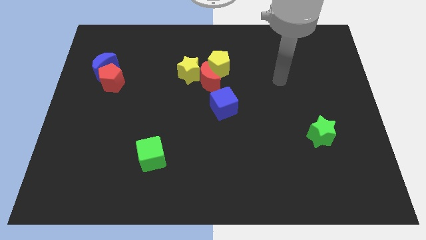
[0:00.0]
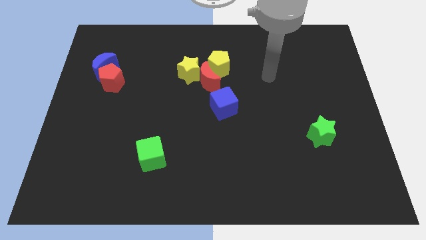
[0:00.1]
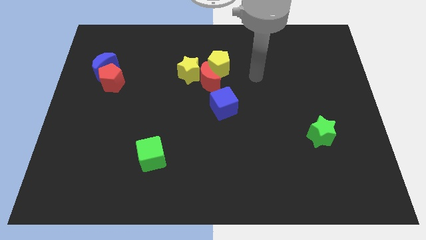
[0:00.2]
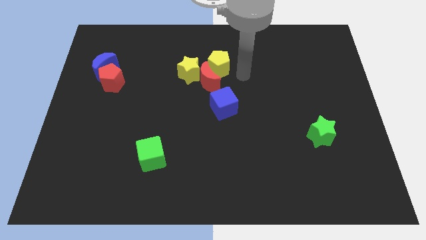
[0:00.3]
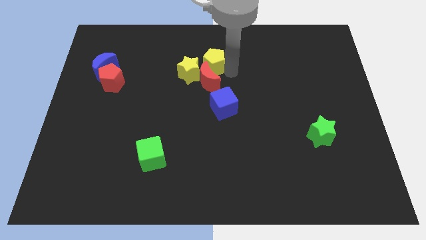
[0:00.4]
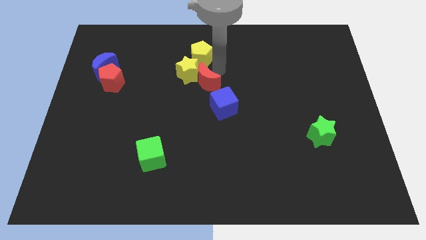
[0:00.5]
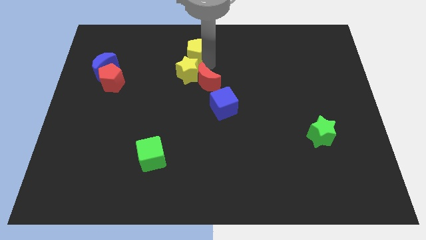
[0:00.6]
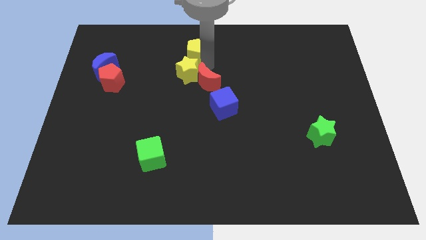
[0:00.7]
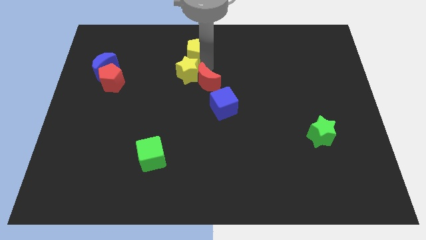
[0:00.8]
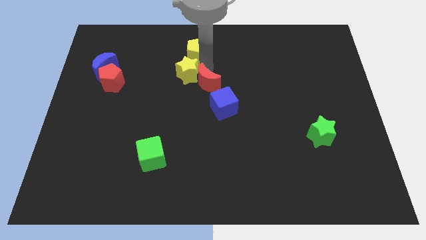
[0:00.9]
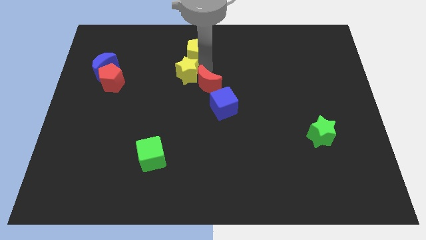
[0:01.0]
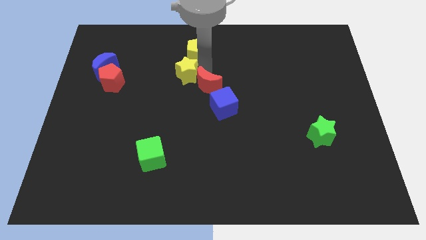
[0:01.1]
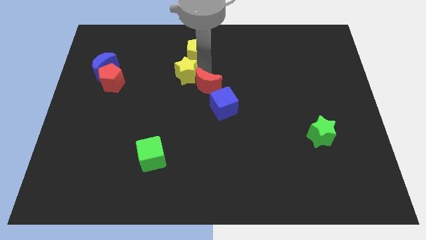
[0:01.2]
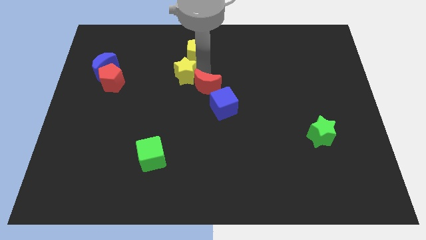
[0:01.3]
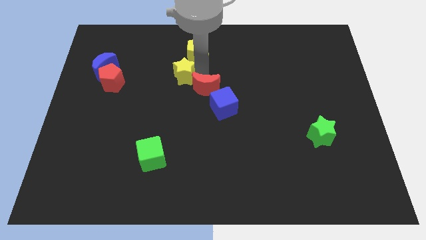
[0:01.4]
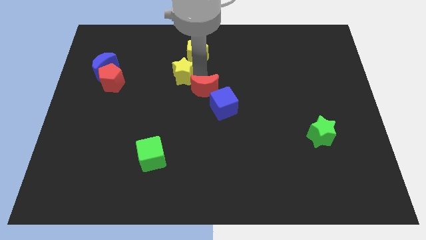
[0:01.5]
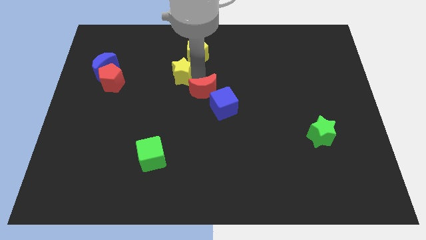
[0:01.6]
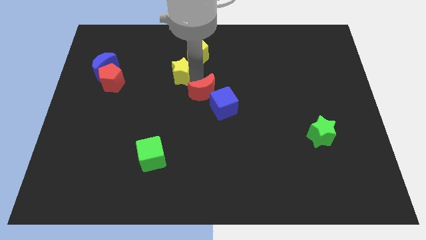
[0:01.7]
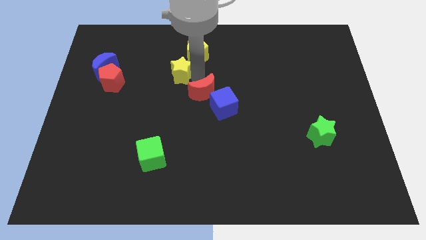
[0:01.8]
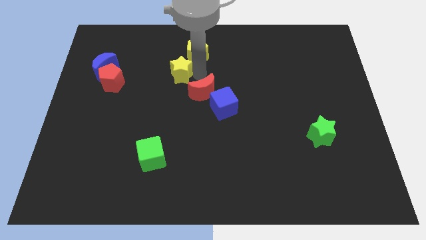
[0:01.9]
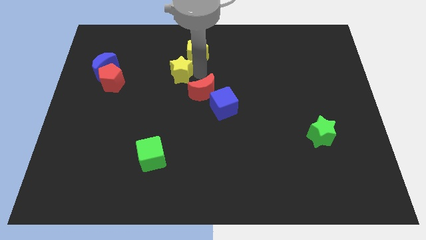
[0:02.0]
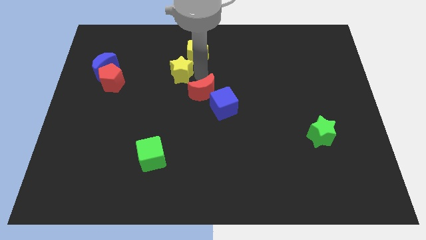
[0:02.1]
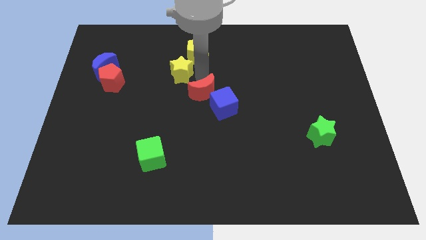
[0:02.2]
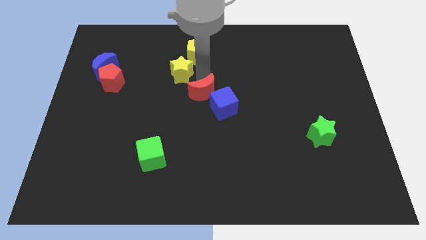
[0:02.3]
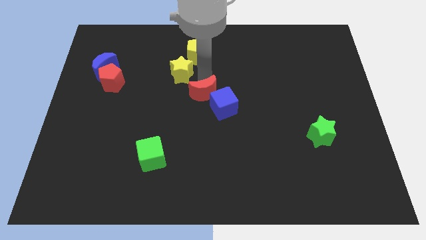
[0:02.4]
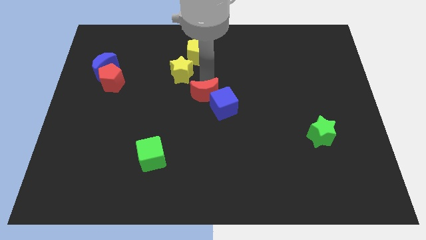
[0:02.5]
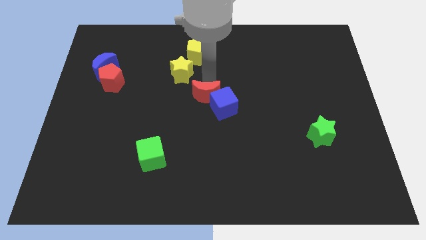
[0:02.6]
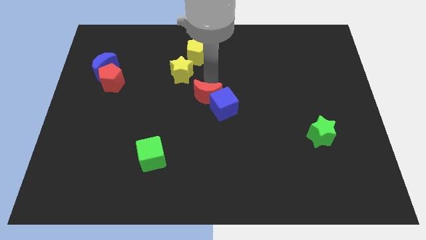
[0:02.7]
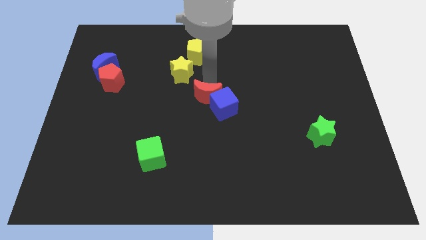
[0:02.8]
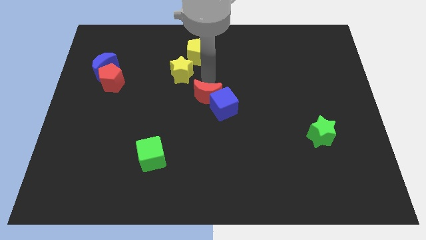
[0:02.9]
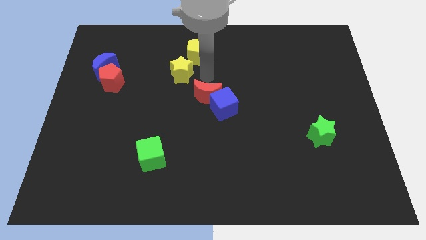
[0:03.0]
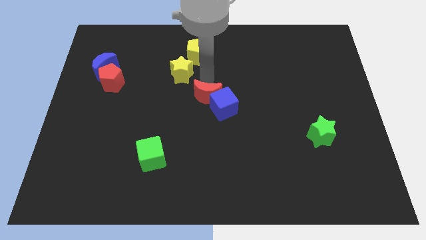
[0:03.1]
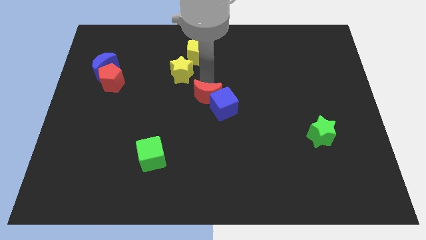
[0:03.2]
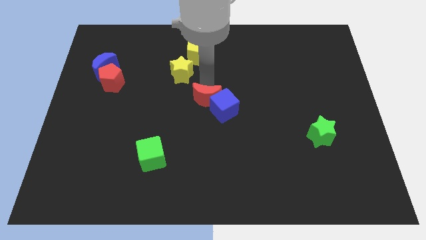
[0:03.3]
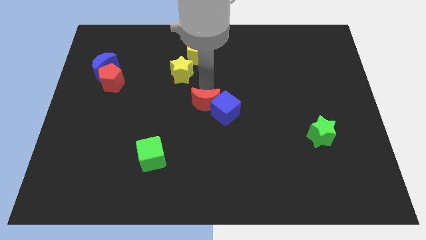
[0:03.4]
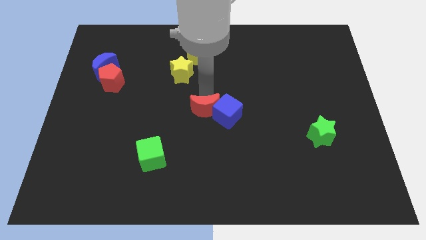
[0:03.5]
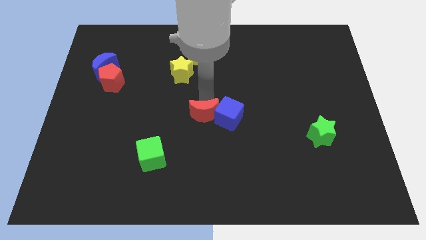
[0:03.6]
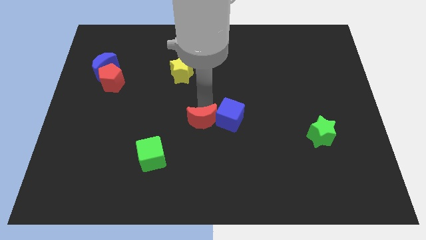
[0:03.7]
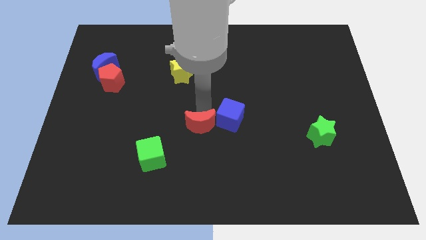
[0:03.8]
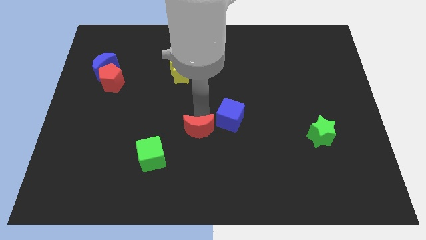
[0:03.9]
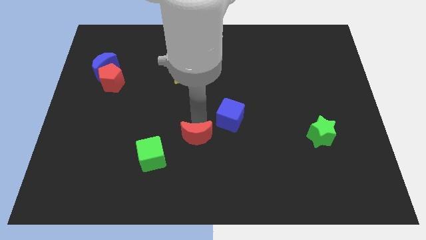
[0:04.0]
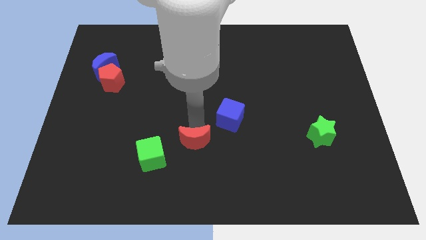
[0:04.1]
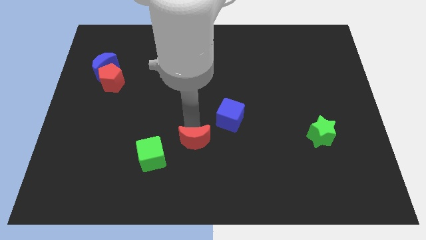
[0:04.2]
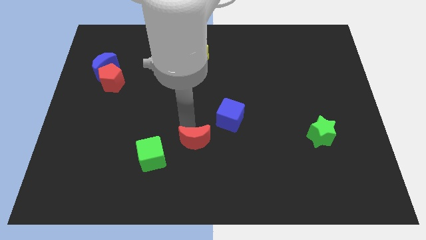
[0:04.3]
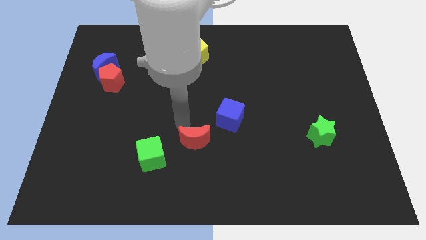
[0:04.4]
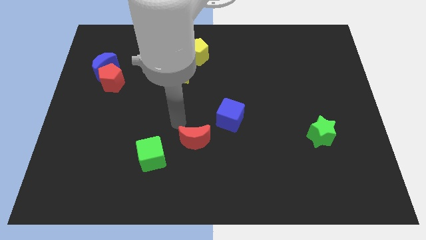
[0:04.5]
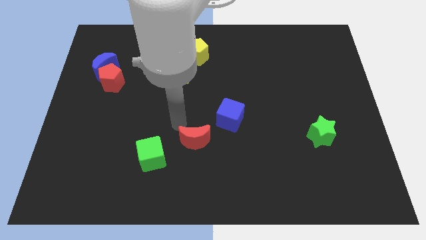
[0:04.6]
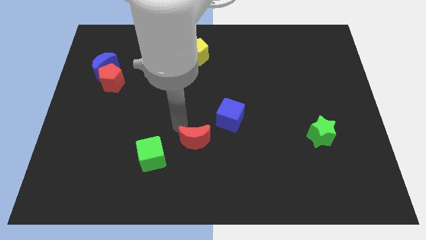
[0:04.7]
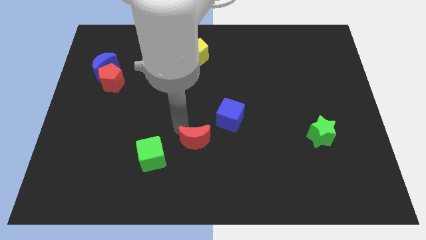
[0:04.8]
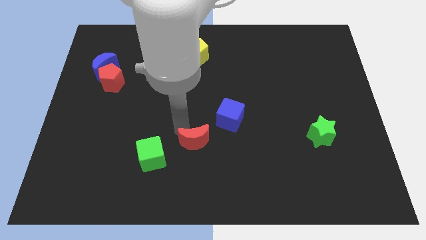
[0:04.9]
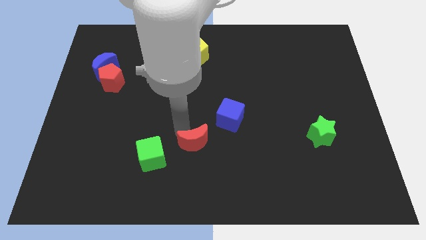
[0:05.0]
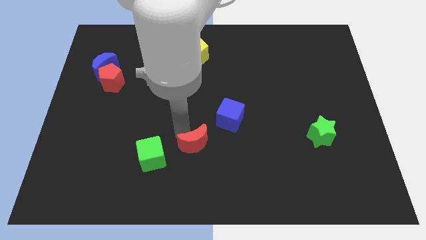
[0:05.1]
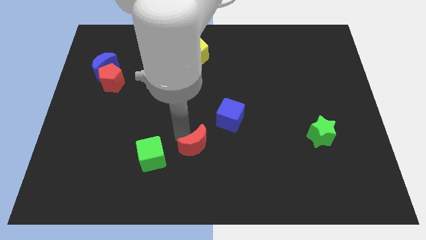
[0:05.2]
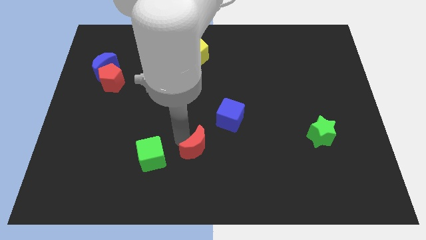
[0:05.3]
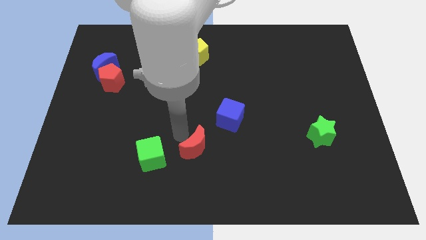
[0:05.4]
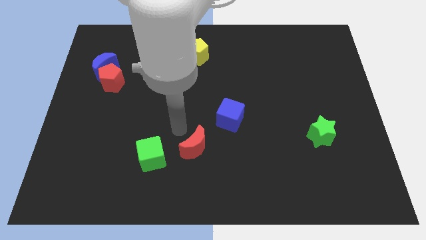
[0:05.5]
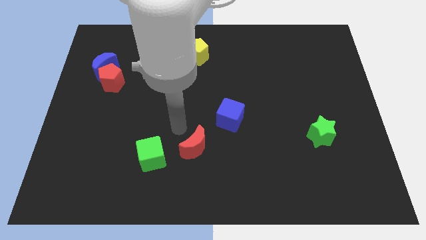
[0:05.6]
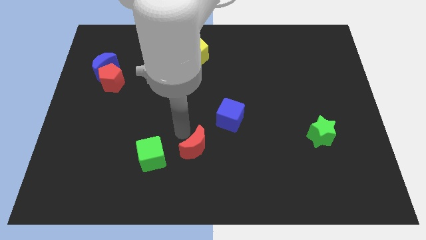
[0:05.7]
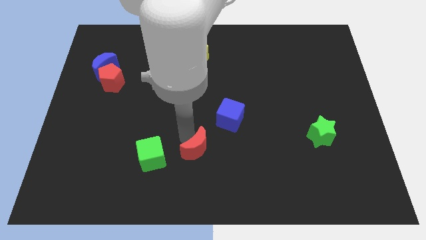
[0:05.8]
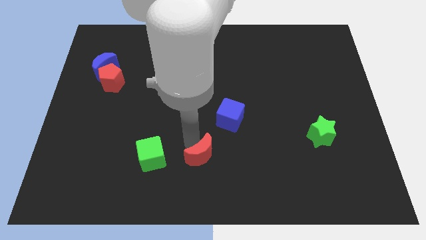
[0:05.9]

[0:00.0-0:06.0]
move the red moon to the bottom

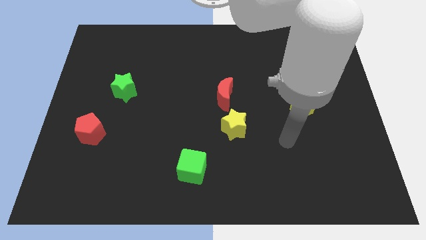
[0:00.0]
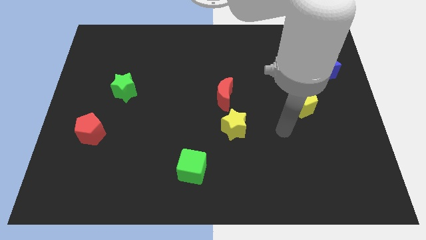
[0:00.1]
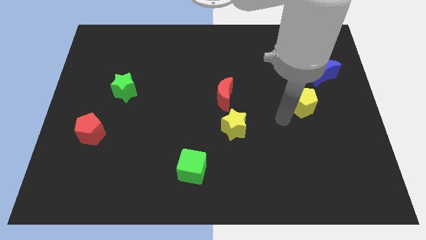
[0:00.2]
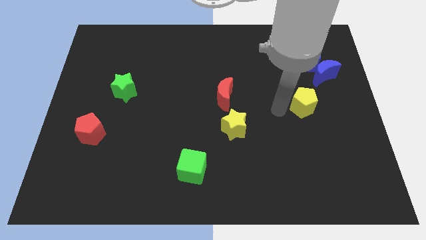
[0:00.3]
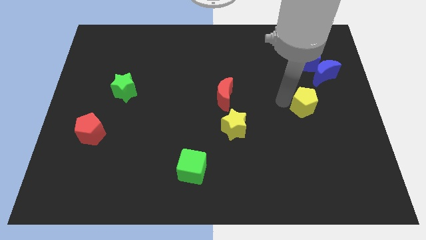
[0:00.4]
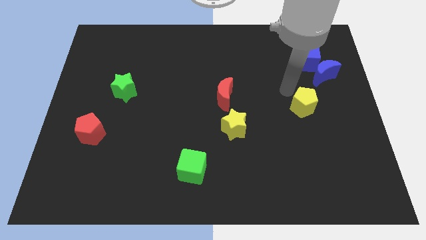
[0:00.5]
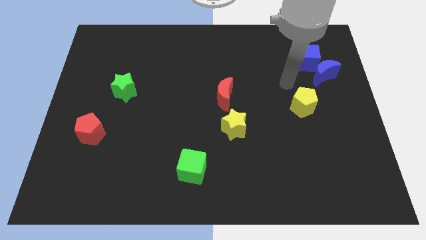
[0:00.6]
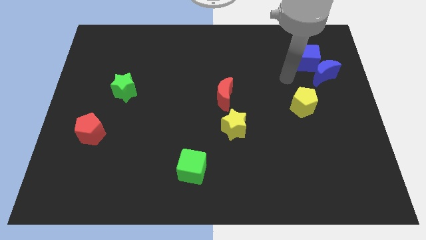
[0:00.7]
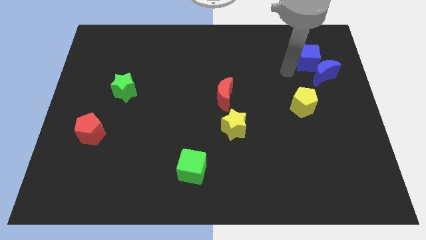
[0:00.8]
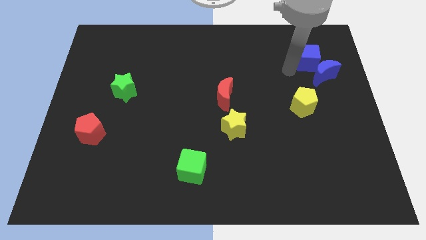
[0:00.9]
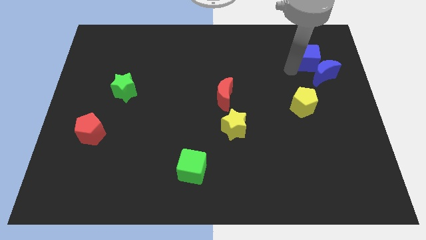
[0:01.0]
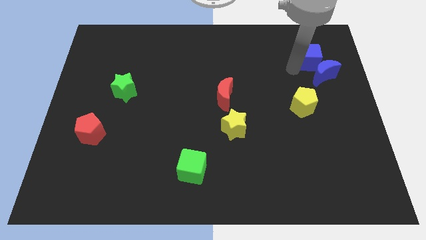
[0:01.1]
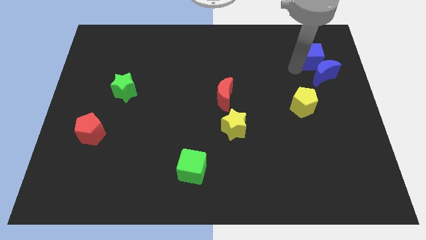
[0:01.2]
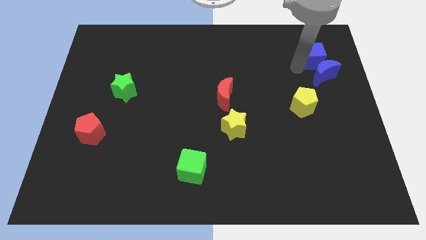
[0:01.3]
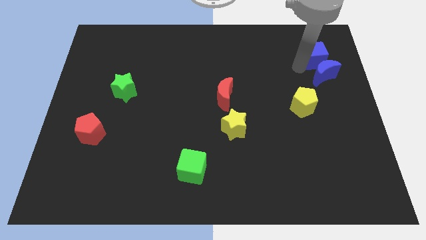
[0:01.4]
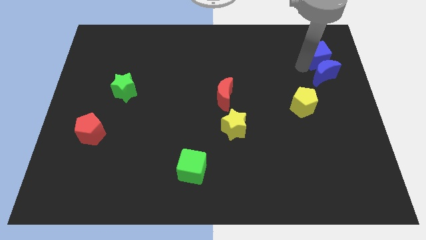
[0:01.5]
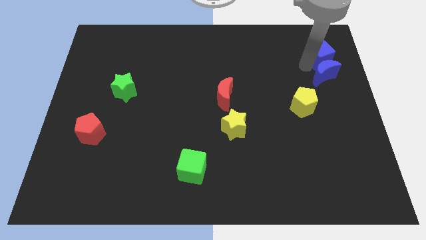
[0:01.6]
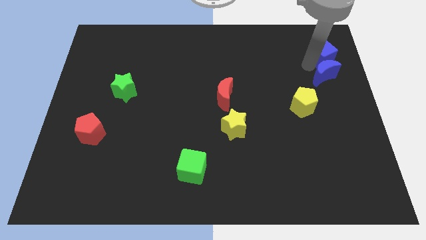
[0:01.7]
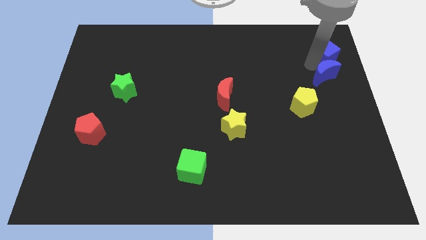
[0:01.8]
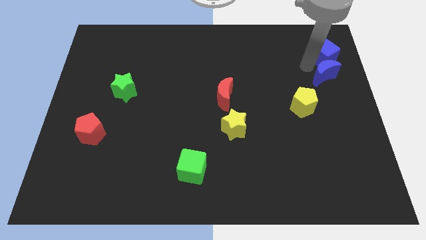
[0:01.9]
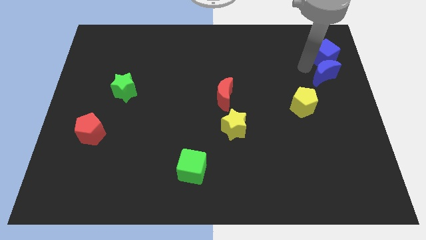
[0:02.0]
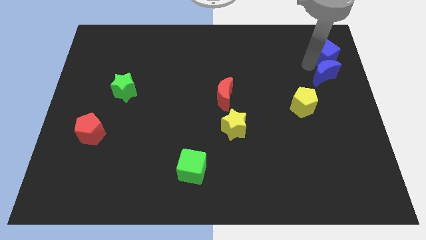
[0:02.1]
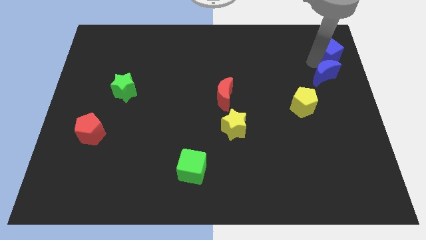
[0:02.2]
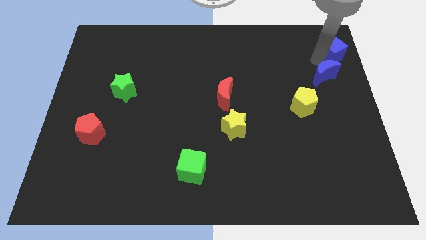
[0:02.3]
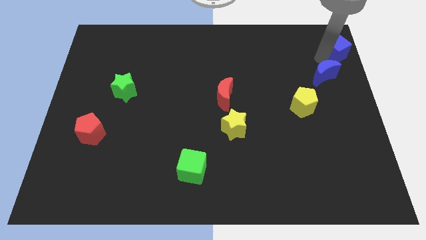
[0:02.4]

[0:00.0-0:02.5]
move the blue cube to the top right
